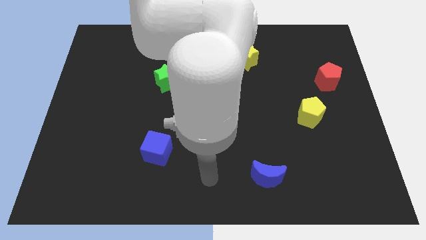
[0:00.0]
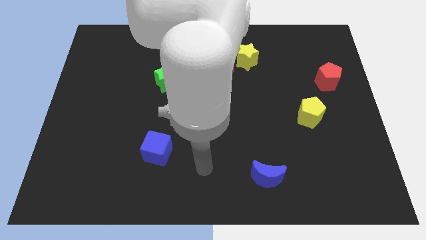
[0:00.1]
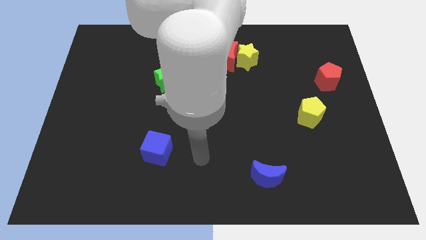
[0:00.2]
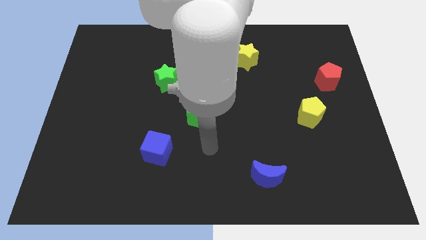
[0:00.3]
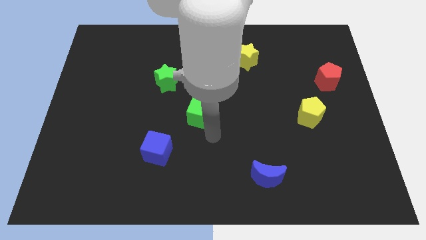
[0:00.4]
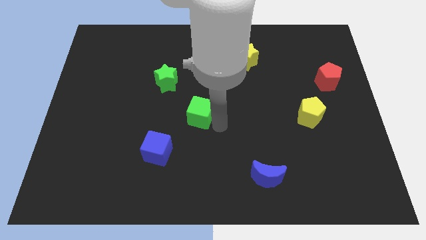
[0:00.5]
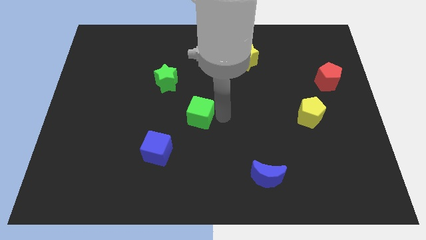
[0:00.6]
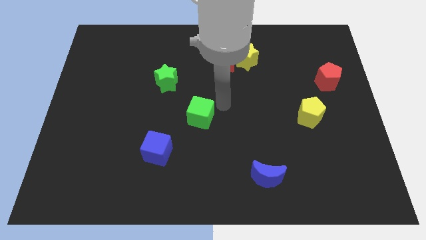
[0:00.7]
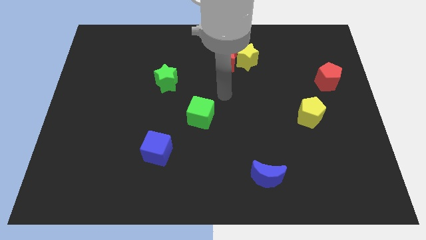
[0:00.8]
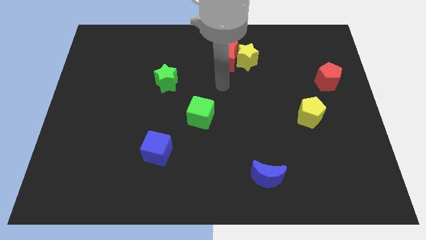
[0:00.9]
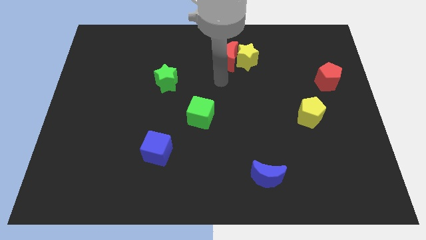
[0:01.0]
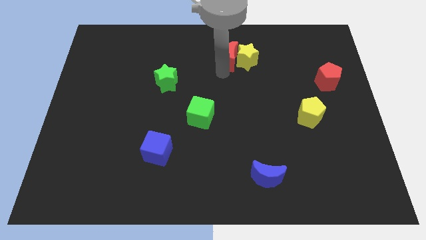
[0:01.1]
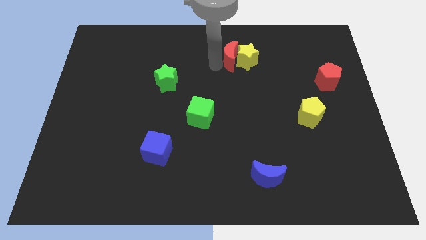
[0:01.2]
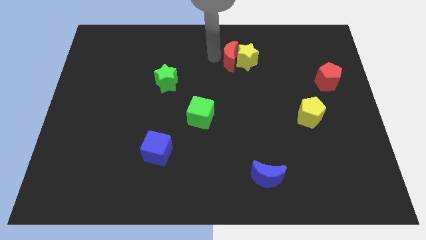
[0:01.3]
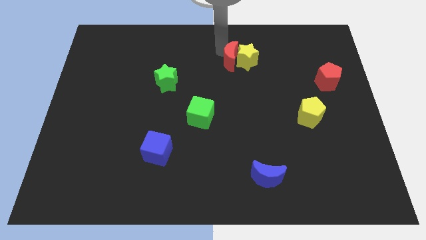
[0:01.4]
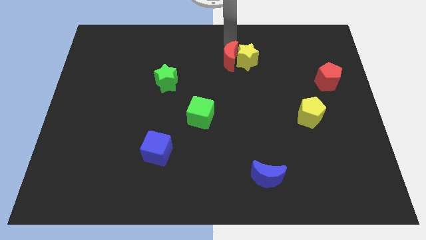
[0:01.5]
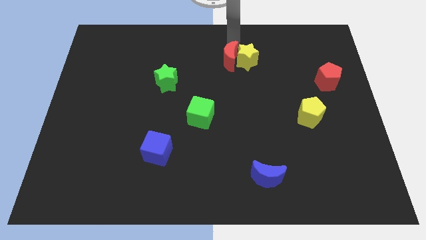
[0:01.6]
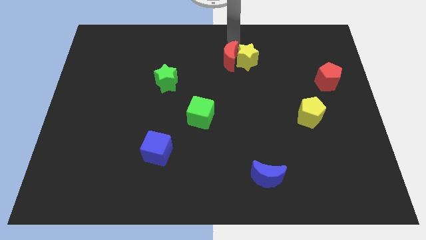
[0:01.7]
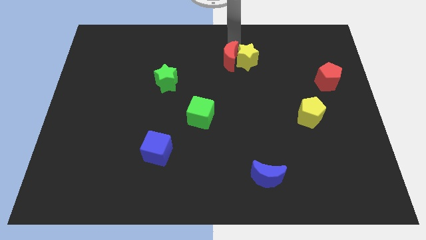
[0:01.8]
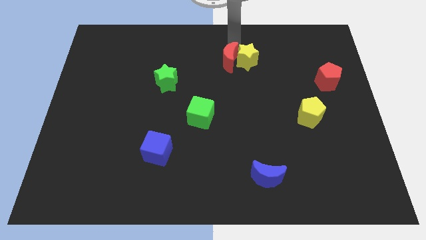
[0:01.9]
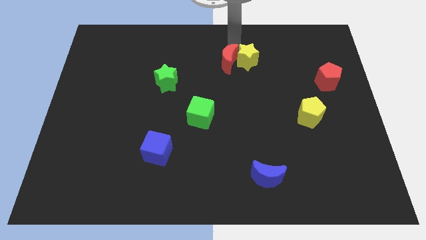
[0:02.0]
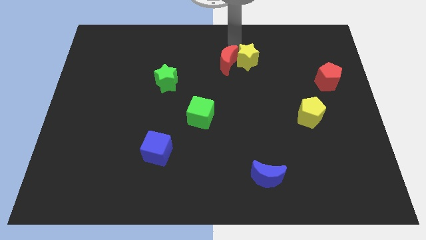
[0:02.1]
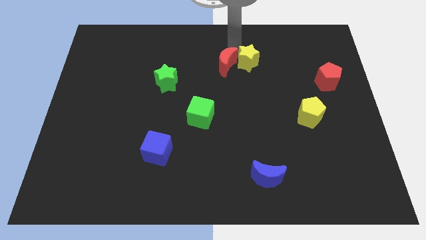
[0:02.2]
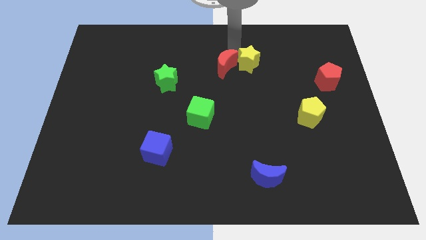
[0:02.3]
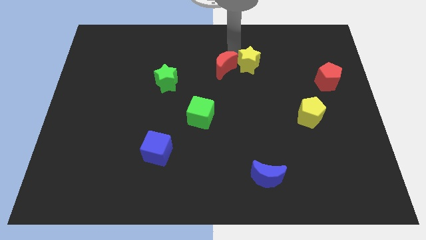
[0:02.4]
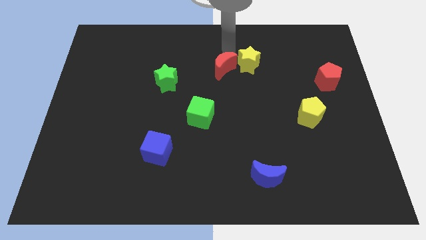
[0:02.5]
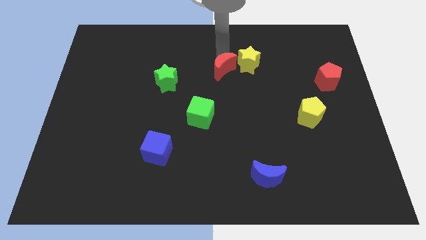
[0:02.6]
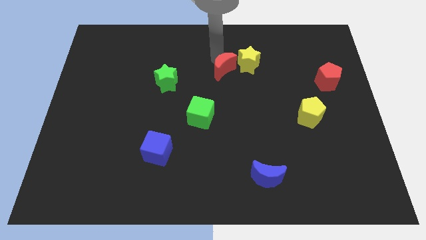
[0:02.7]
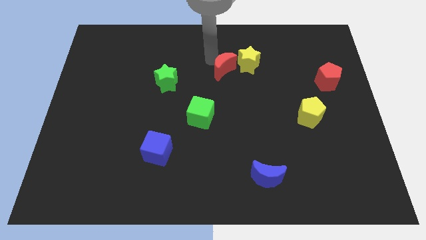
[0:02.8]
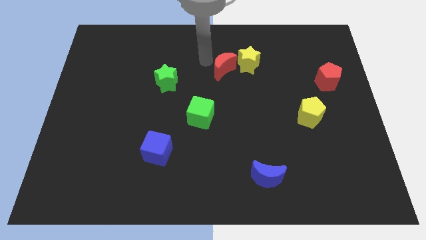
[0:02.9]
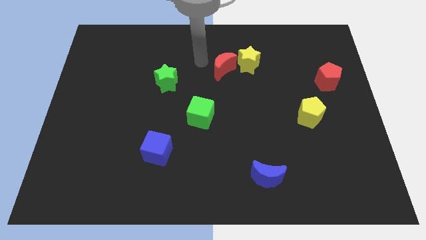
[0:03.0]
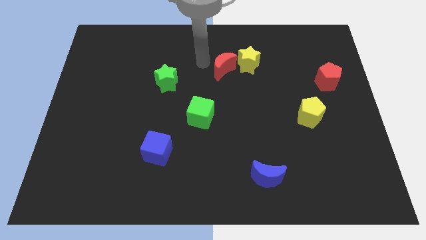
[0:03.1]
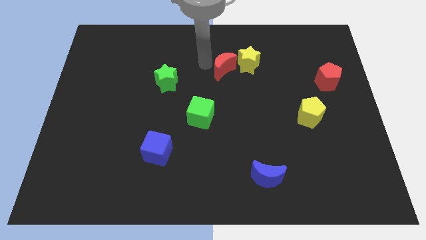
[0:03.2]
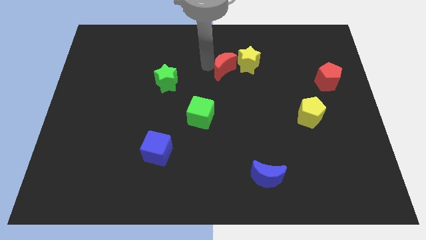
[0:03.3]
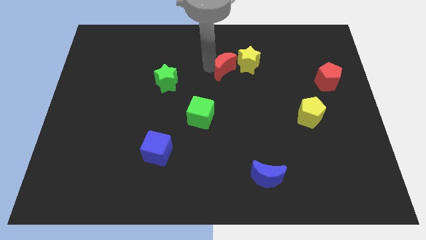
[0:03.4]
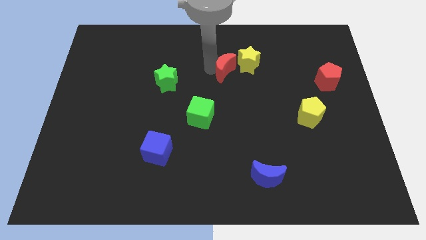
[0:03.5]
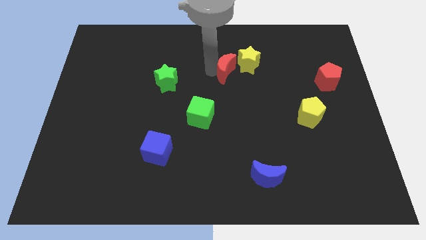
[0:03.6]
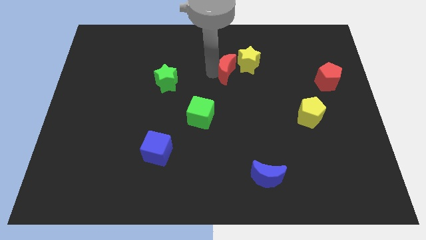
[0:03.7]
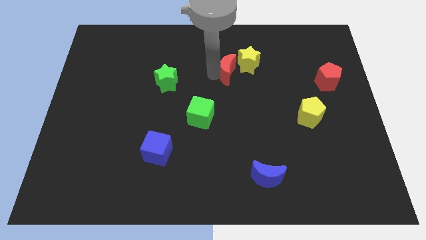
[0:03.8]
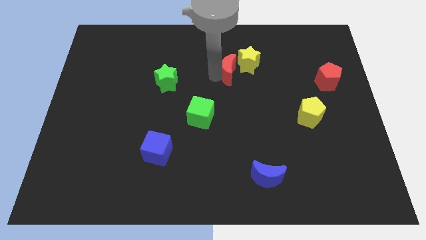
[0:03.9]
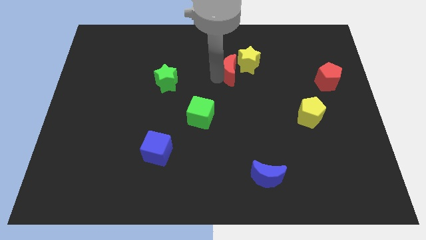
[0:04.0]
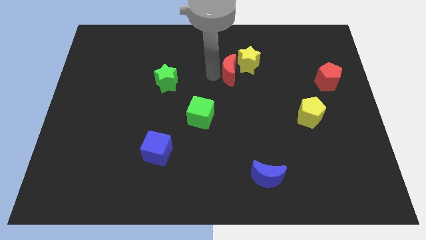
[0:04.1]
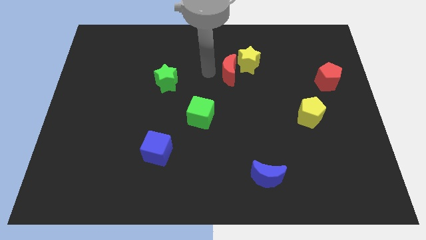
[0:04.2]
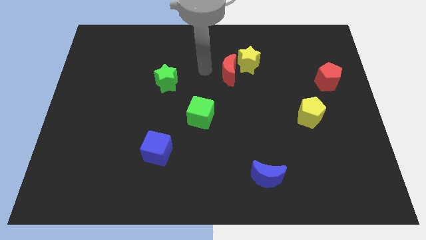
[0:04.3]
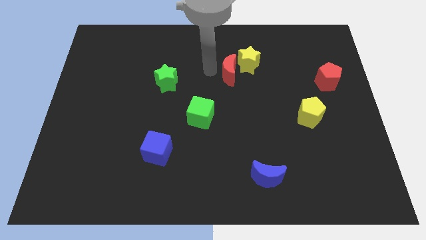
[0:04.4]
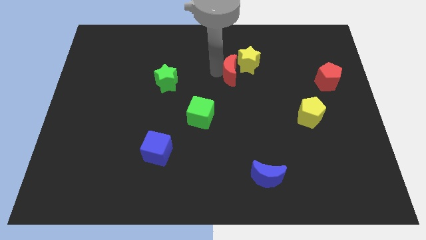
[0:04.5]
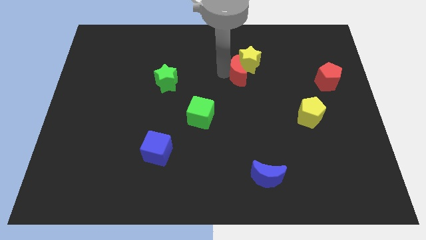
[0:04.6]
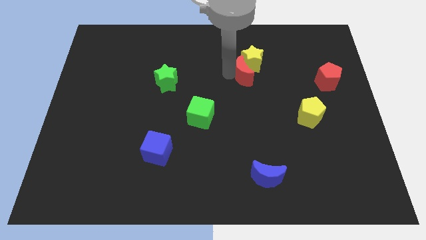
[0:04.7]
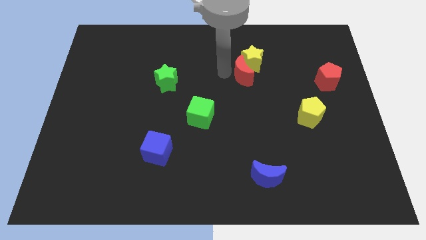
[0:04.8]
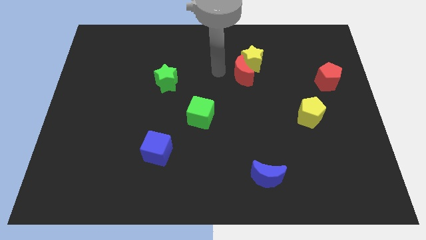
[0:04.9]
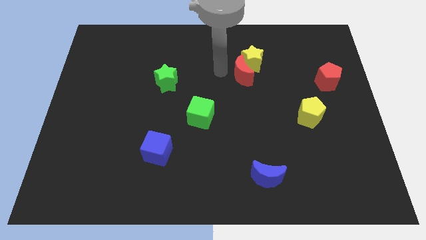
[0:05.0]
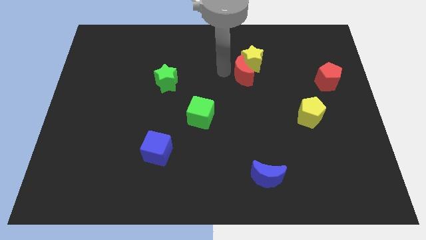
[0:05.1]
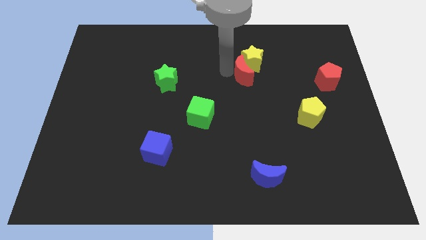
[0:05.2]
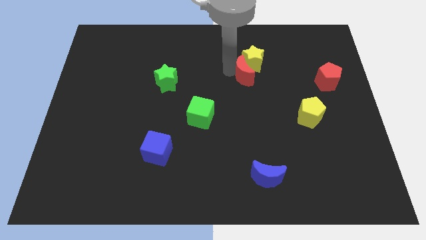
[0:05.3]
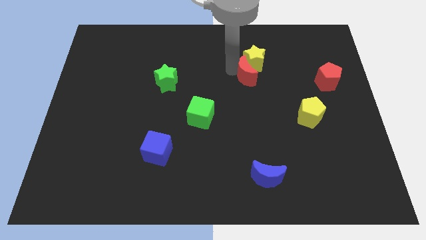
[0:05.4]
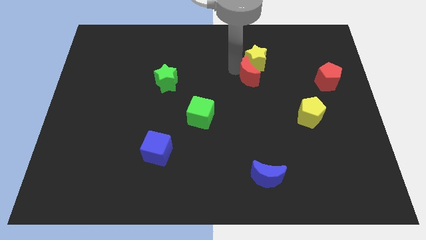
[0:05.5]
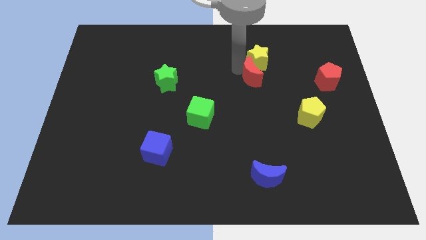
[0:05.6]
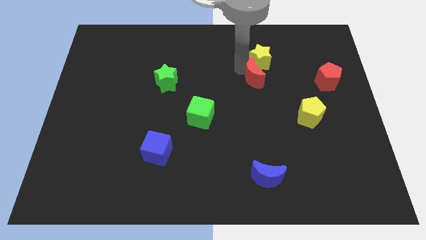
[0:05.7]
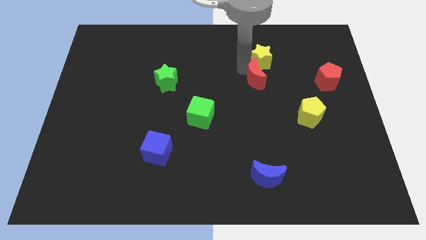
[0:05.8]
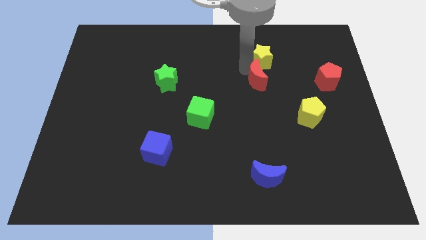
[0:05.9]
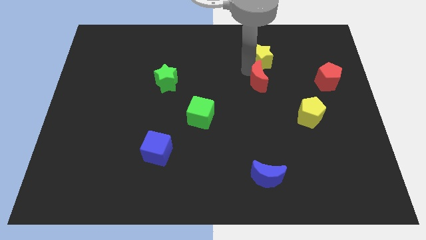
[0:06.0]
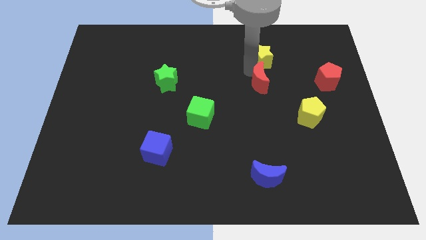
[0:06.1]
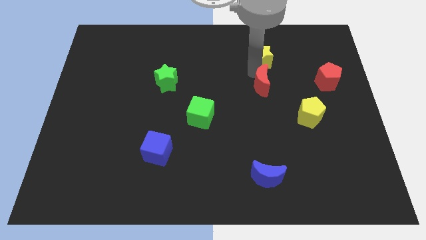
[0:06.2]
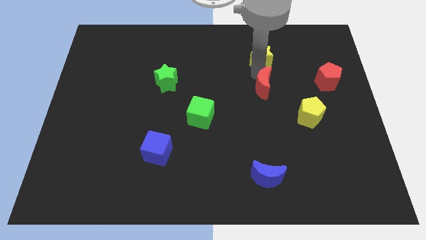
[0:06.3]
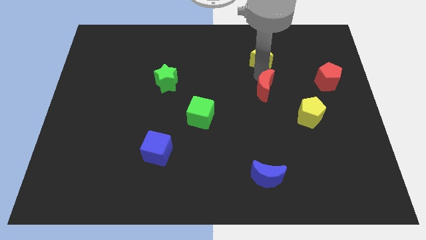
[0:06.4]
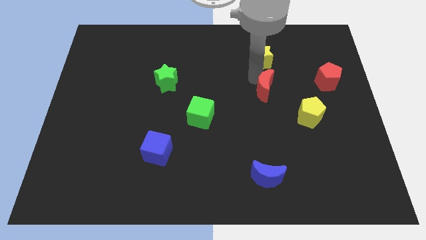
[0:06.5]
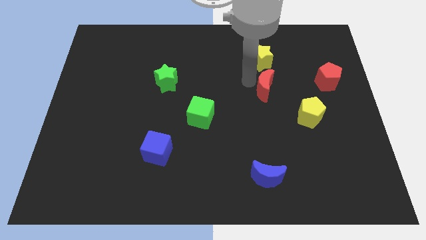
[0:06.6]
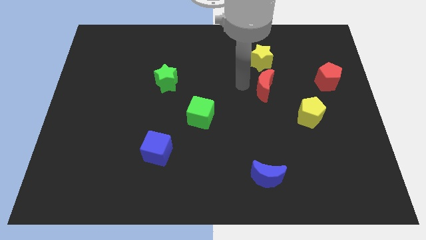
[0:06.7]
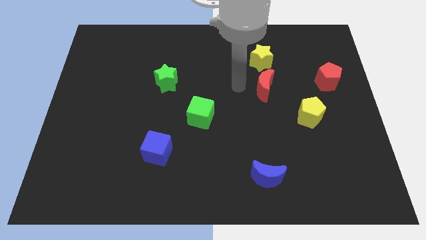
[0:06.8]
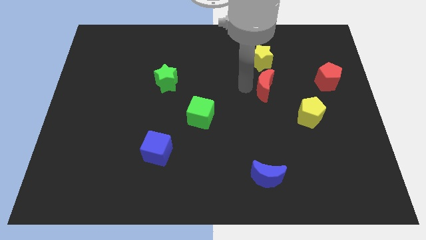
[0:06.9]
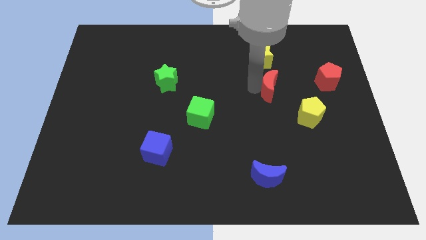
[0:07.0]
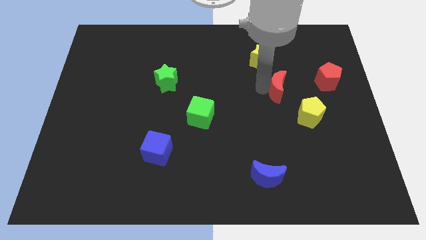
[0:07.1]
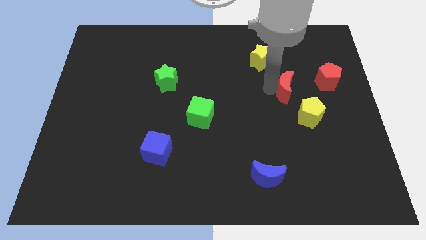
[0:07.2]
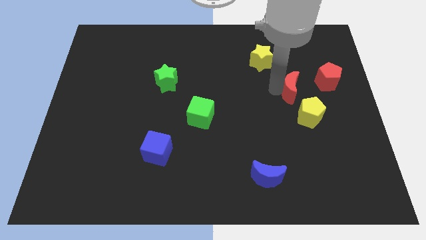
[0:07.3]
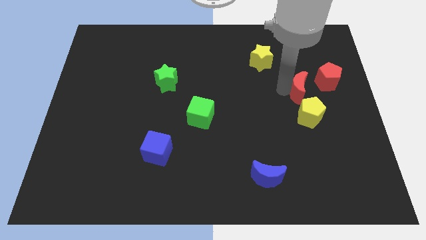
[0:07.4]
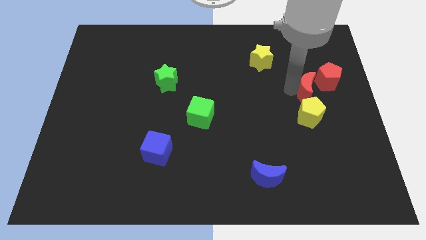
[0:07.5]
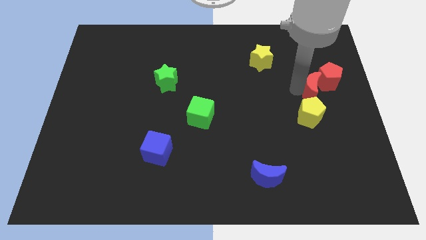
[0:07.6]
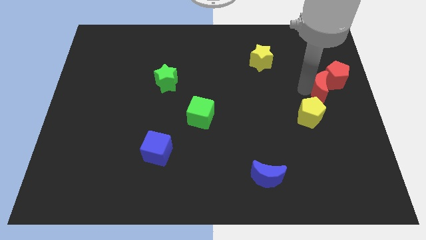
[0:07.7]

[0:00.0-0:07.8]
put the red moon to the center right

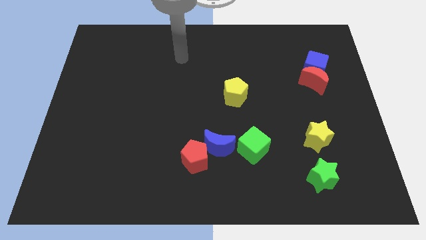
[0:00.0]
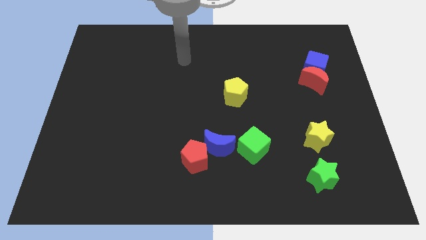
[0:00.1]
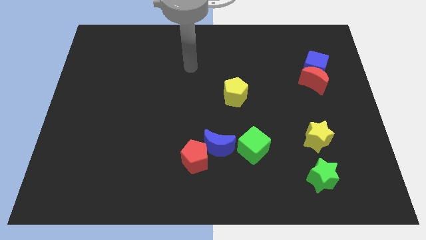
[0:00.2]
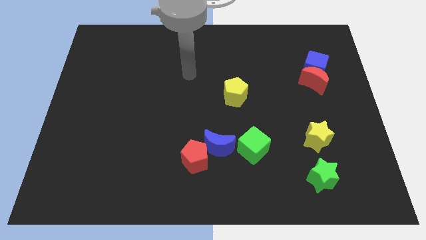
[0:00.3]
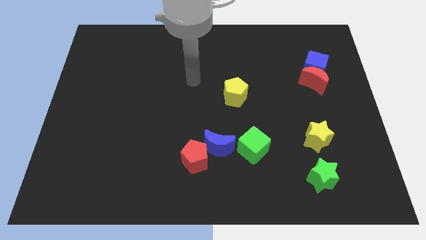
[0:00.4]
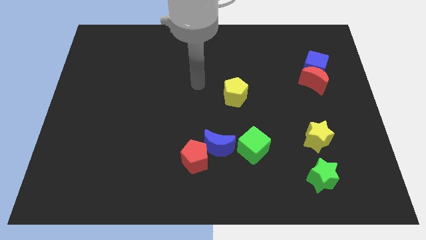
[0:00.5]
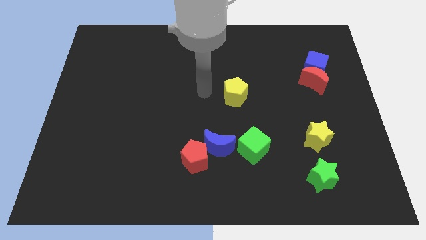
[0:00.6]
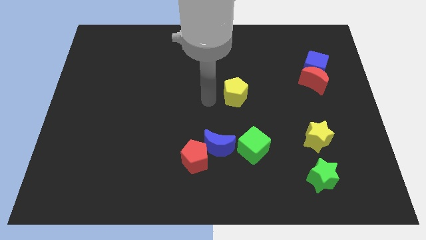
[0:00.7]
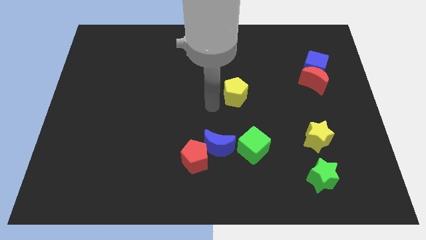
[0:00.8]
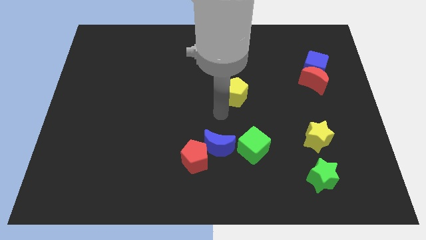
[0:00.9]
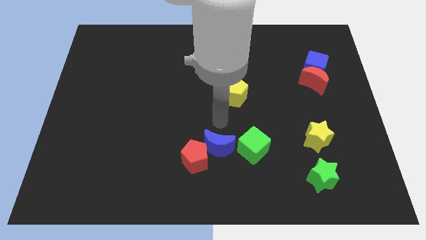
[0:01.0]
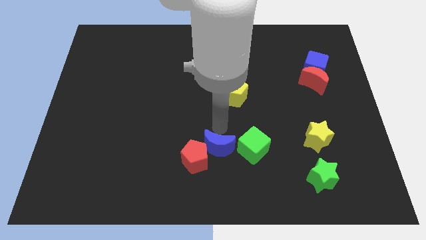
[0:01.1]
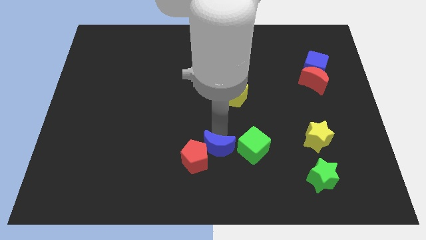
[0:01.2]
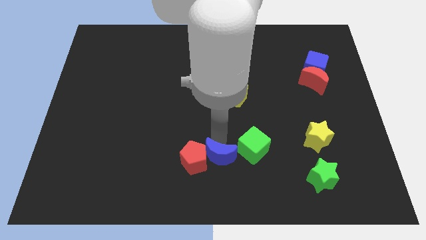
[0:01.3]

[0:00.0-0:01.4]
push the blue moon to the bottom side
